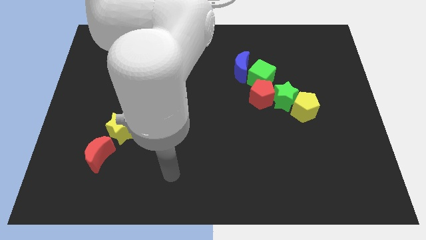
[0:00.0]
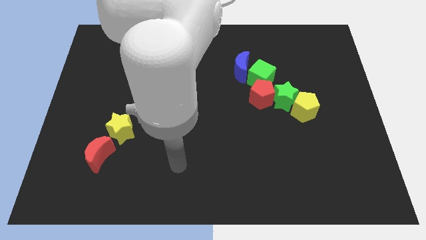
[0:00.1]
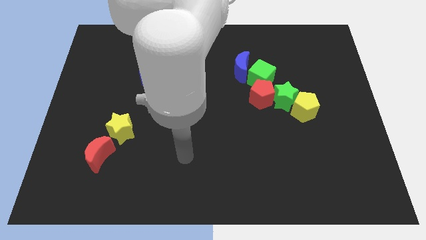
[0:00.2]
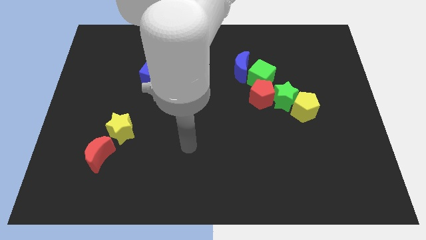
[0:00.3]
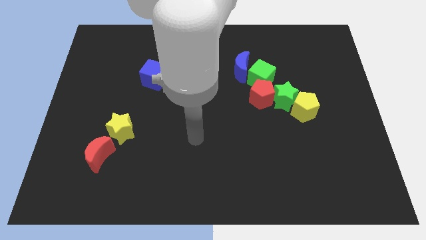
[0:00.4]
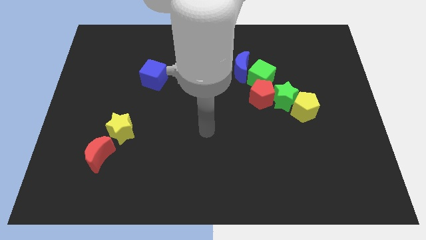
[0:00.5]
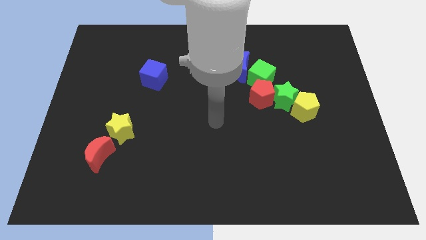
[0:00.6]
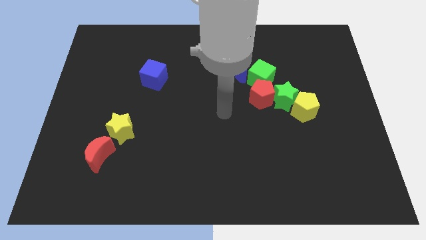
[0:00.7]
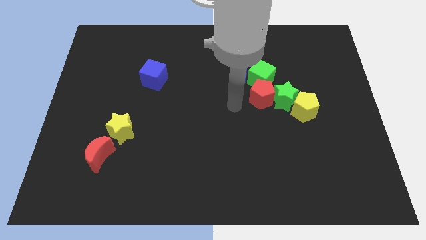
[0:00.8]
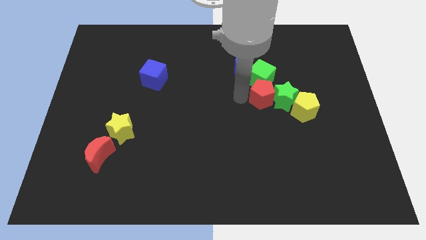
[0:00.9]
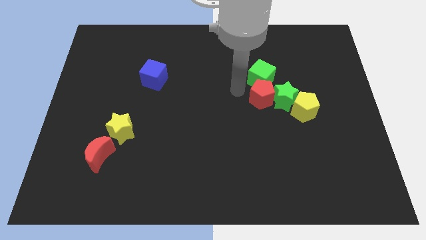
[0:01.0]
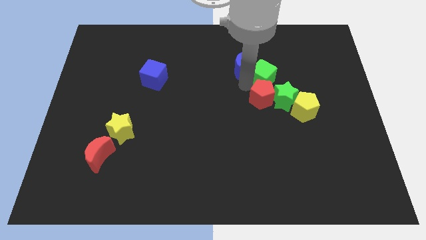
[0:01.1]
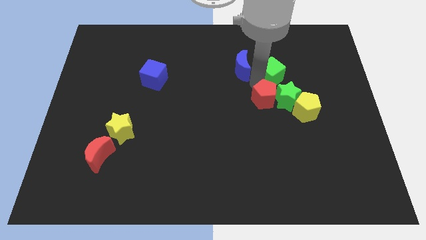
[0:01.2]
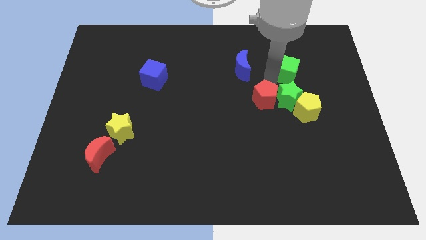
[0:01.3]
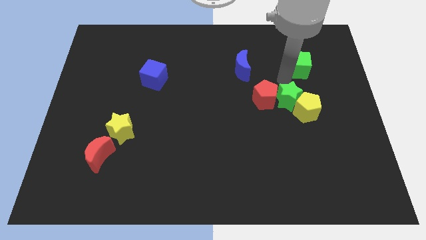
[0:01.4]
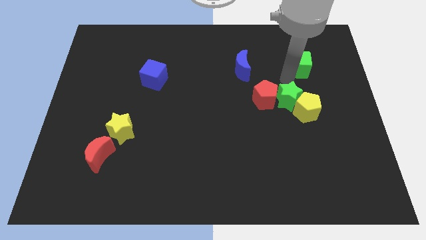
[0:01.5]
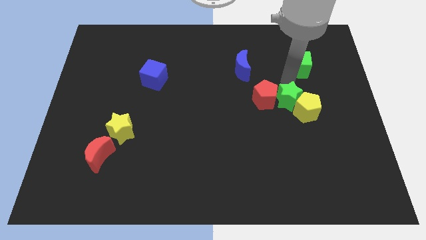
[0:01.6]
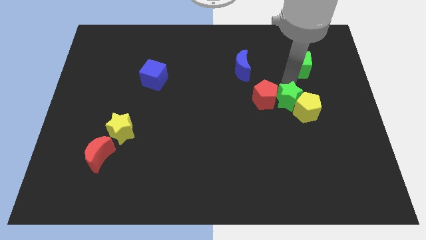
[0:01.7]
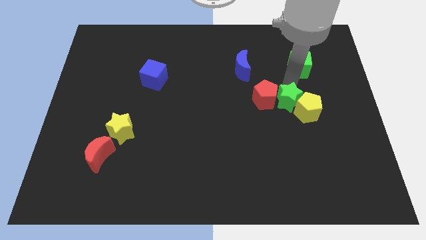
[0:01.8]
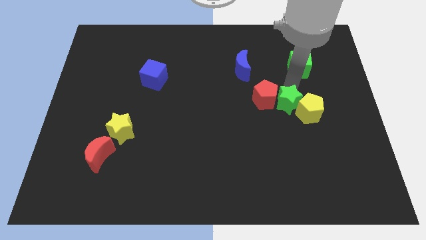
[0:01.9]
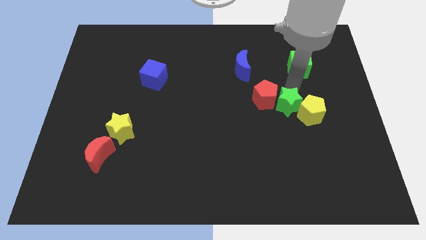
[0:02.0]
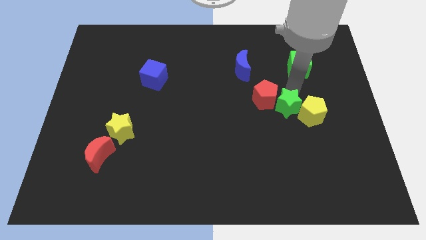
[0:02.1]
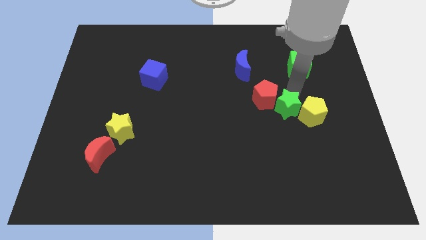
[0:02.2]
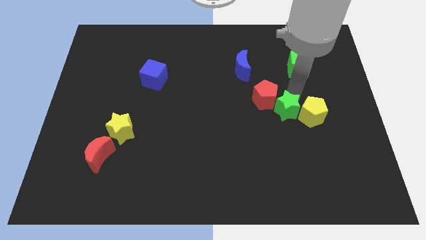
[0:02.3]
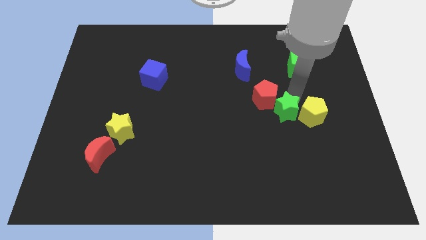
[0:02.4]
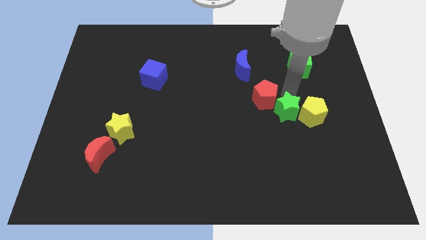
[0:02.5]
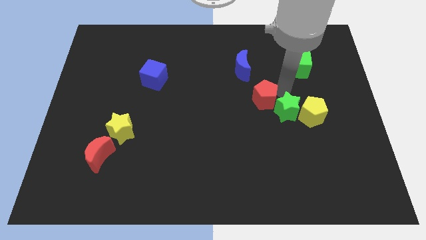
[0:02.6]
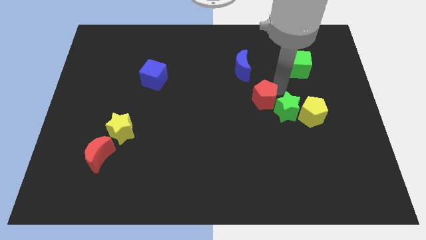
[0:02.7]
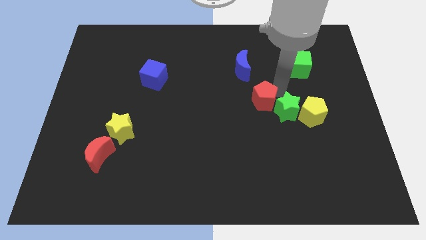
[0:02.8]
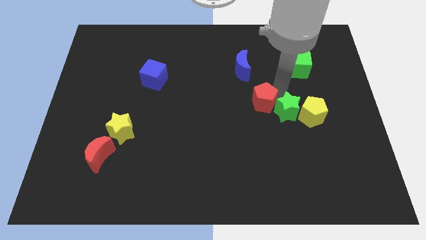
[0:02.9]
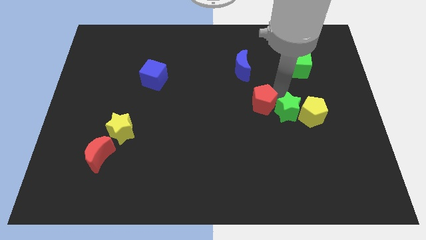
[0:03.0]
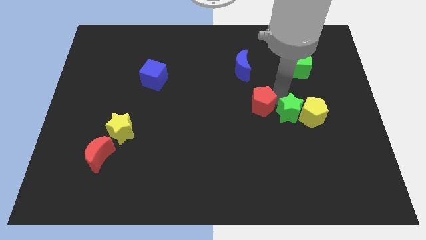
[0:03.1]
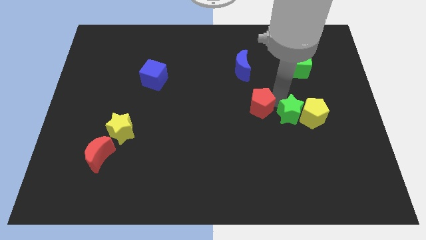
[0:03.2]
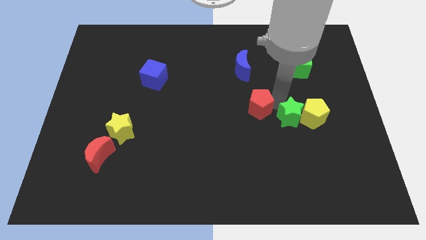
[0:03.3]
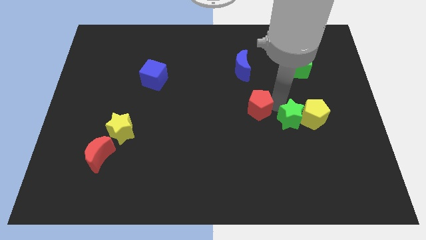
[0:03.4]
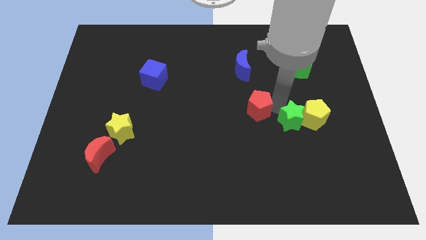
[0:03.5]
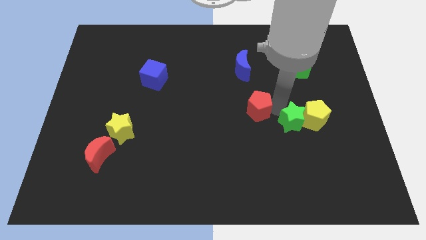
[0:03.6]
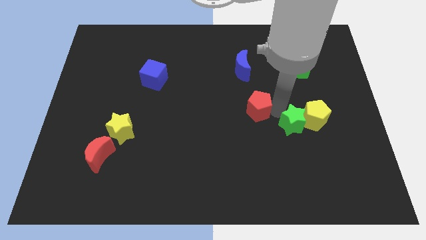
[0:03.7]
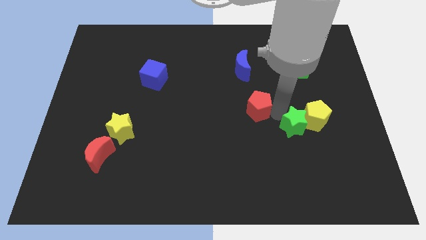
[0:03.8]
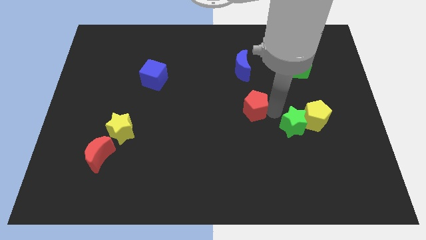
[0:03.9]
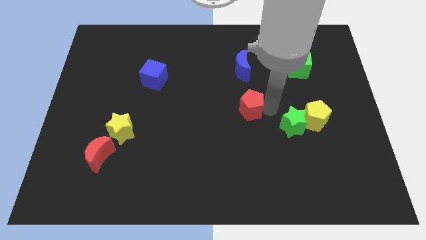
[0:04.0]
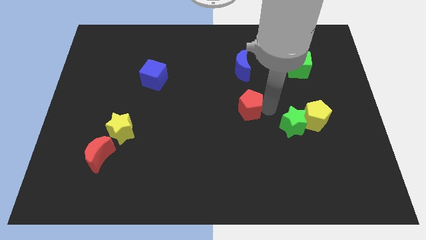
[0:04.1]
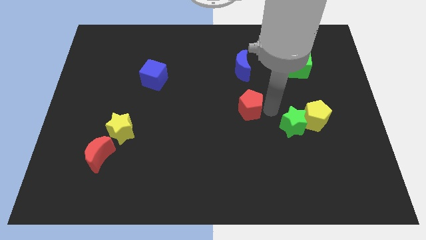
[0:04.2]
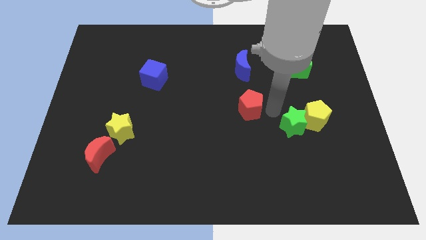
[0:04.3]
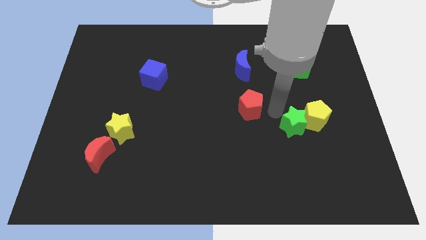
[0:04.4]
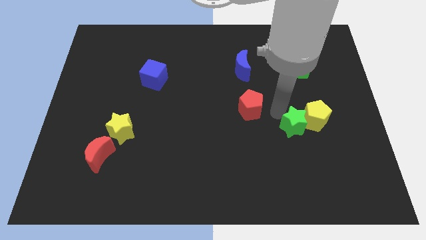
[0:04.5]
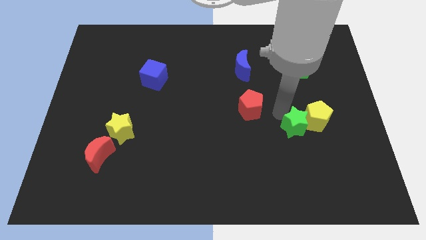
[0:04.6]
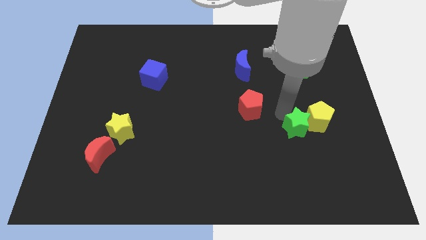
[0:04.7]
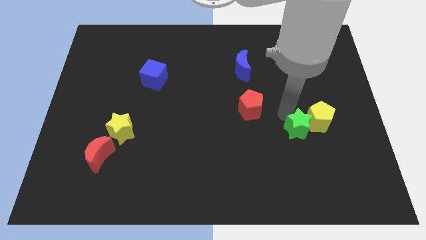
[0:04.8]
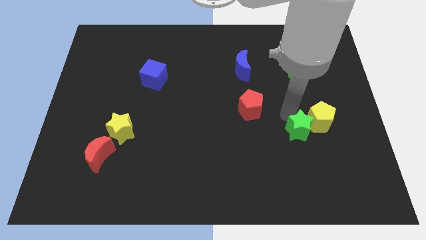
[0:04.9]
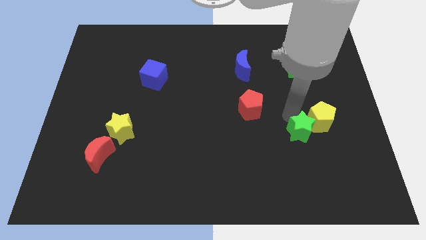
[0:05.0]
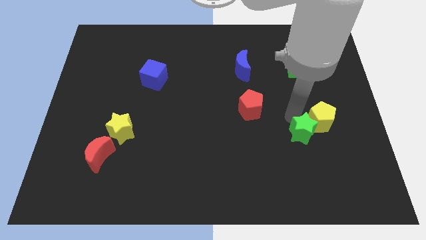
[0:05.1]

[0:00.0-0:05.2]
move the green star away from the red pentagon, yellow pentagon, and green cube

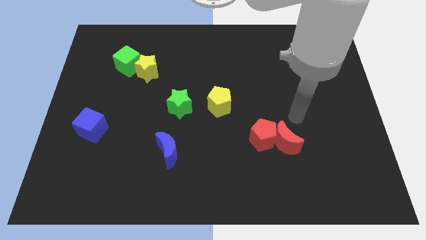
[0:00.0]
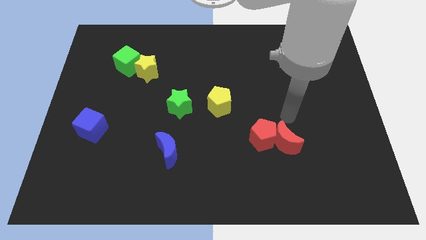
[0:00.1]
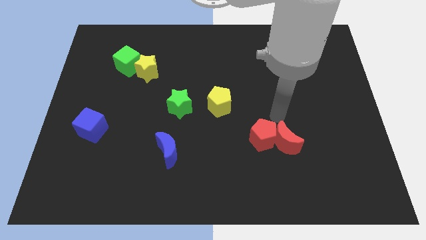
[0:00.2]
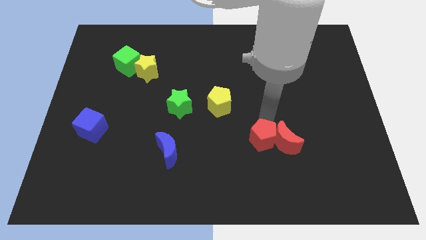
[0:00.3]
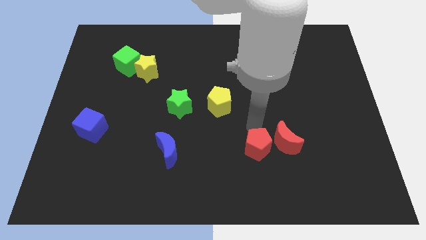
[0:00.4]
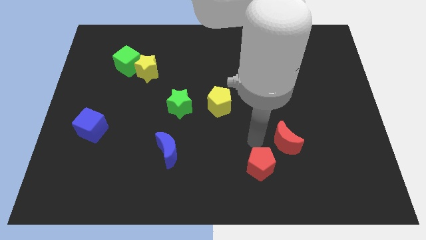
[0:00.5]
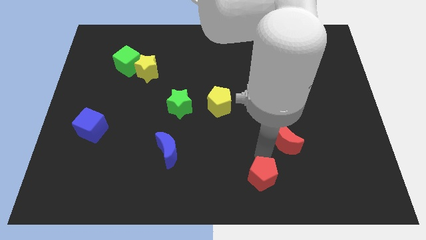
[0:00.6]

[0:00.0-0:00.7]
pull the red moon apart from the red pentagon

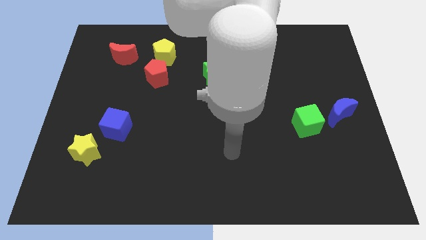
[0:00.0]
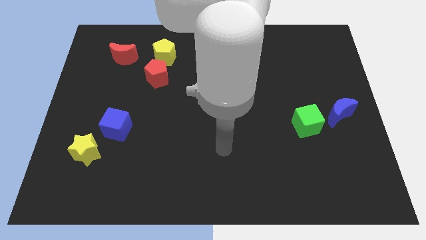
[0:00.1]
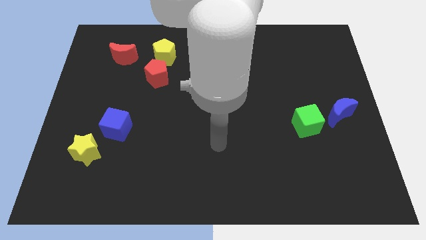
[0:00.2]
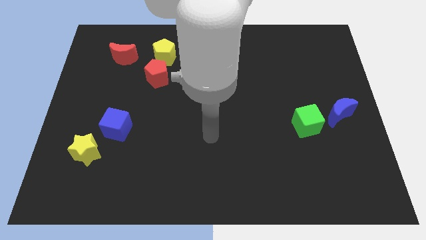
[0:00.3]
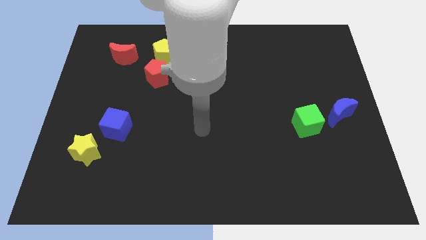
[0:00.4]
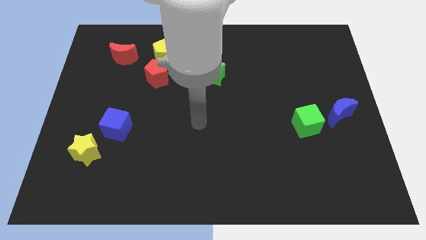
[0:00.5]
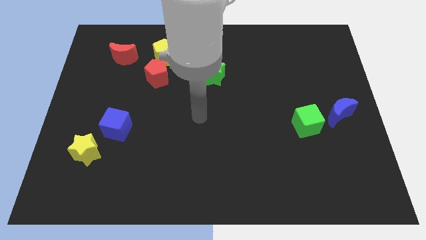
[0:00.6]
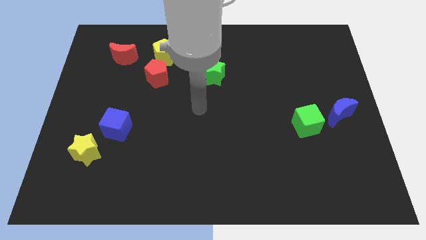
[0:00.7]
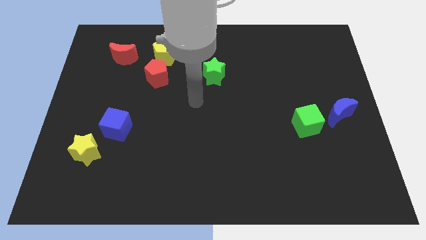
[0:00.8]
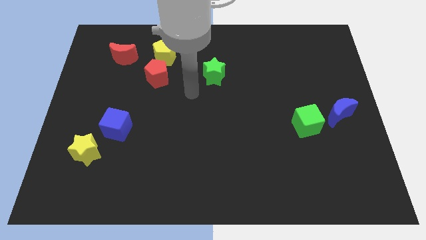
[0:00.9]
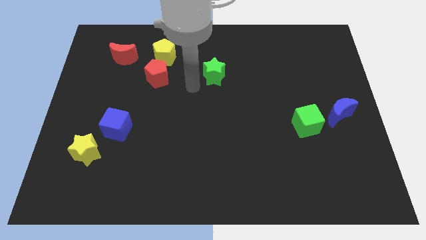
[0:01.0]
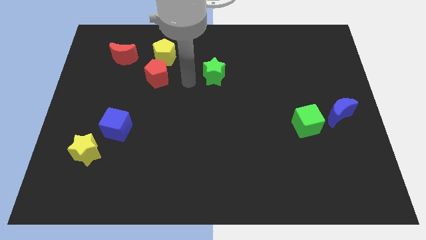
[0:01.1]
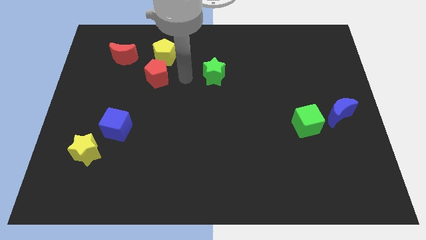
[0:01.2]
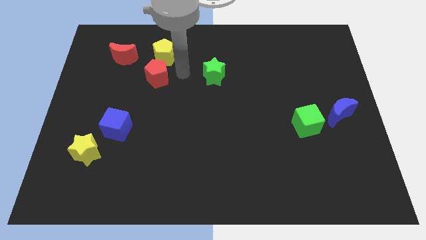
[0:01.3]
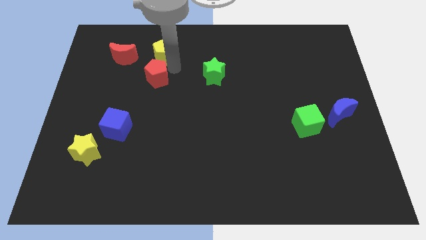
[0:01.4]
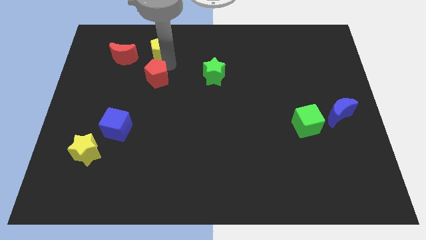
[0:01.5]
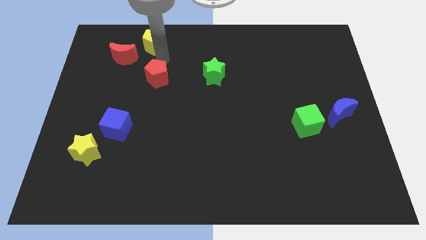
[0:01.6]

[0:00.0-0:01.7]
separate the red pentagon from the yellow pentagon

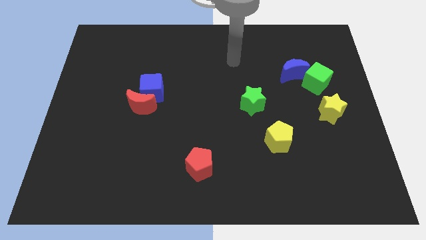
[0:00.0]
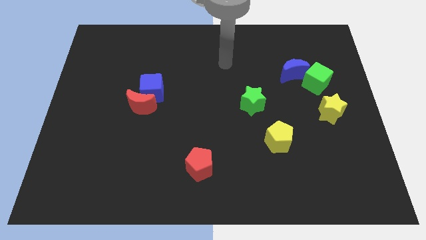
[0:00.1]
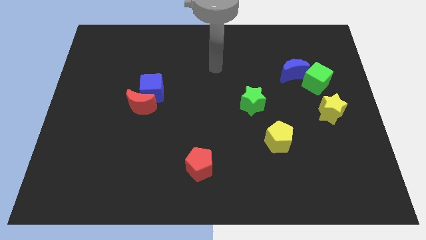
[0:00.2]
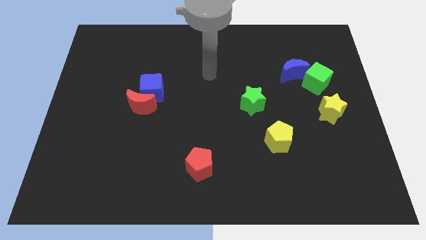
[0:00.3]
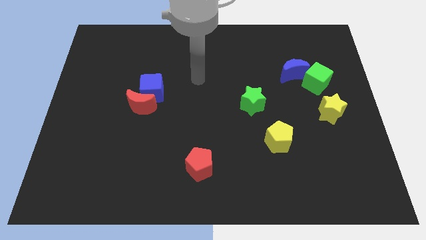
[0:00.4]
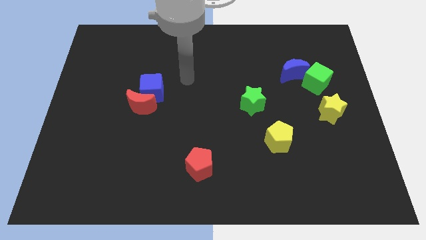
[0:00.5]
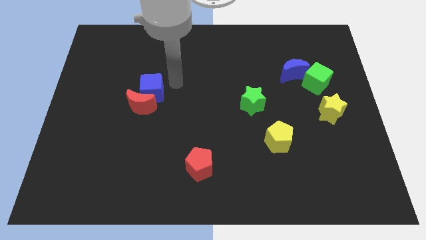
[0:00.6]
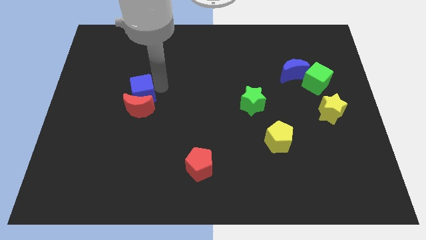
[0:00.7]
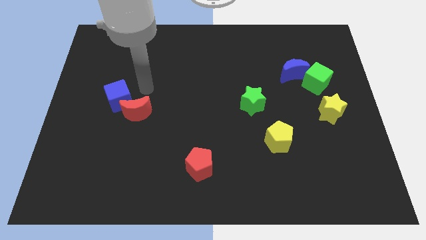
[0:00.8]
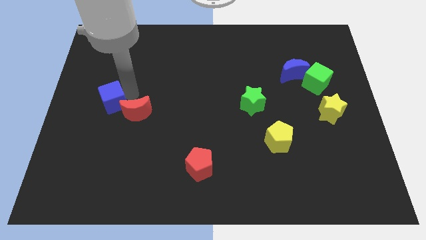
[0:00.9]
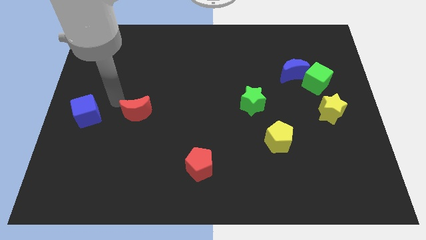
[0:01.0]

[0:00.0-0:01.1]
pull the red moon apart from the blue cube

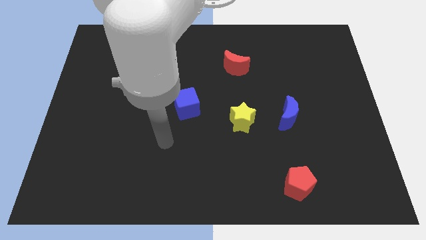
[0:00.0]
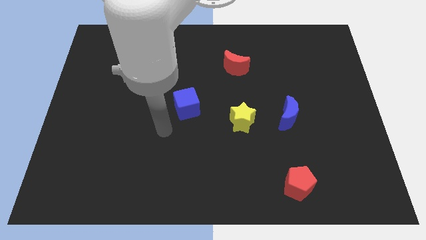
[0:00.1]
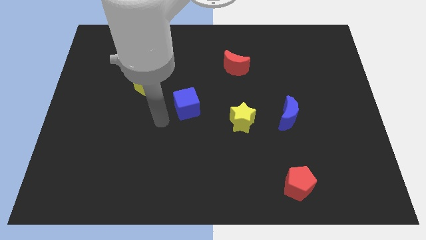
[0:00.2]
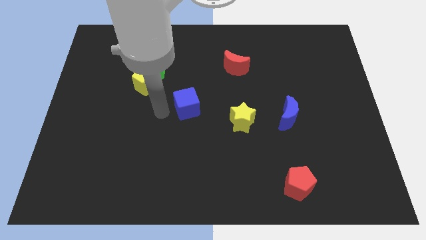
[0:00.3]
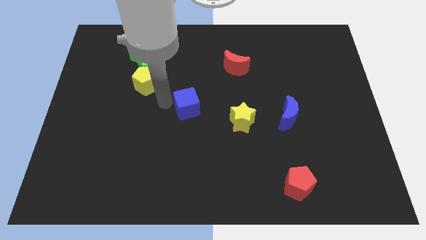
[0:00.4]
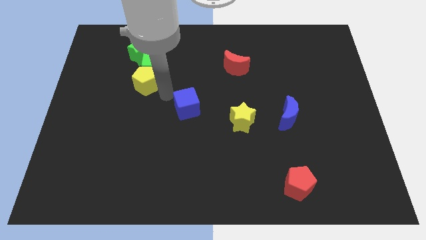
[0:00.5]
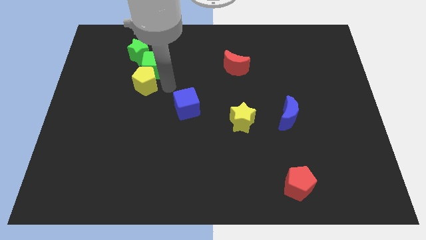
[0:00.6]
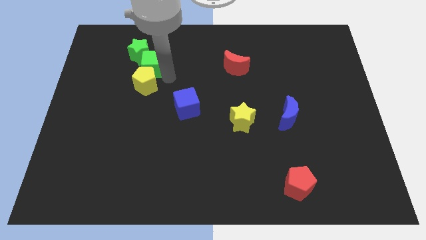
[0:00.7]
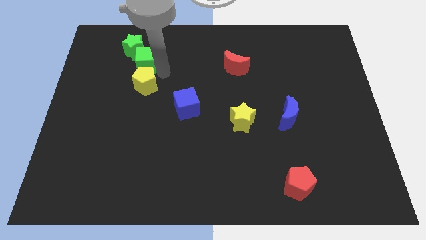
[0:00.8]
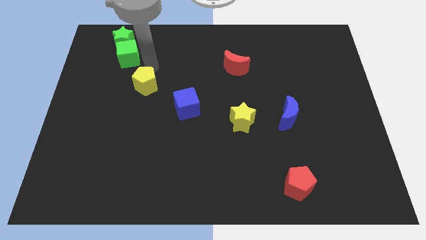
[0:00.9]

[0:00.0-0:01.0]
move the yellow pentagon away from the green cube
